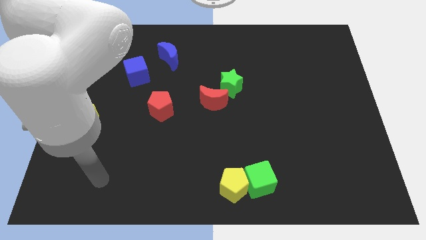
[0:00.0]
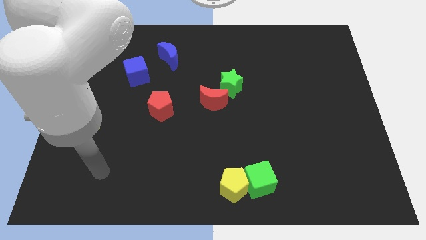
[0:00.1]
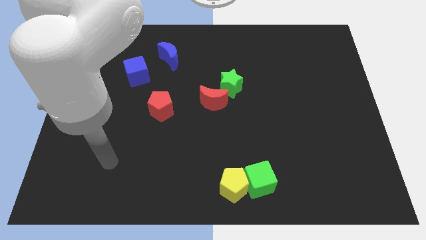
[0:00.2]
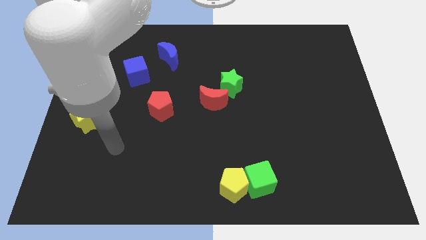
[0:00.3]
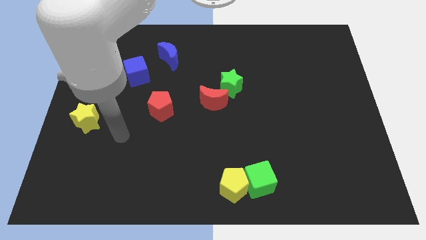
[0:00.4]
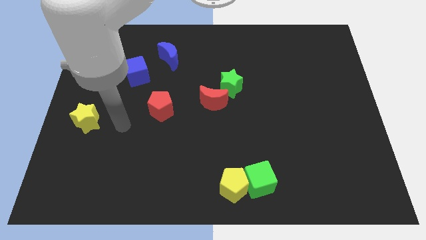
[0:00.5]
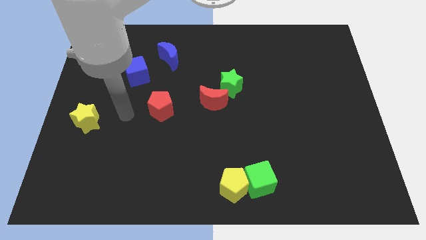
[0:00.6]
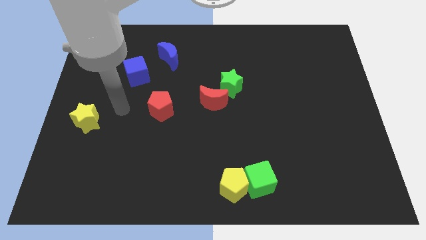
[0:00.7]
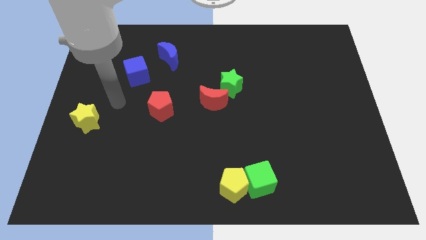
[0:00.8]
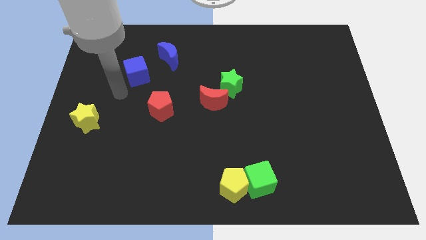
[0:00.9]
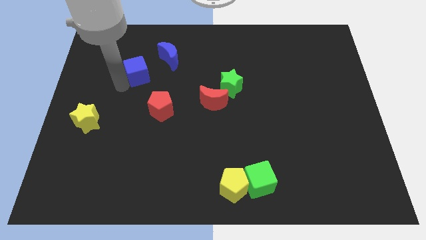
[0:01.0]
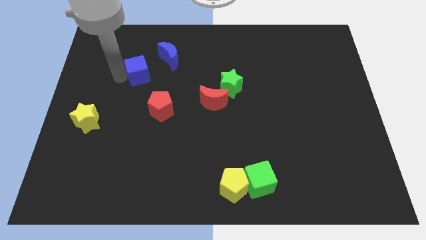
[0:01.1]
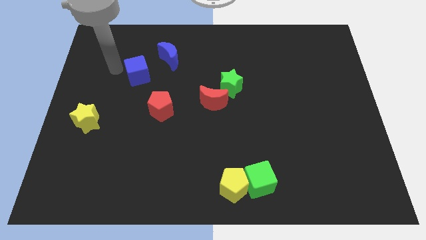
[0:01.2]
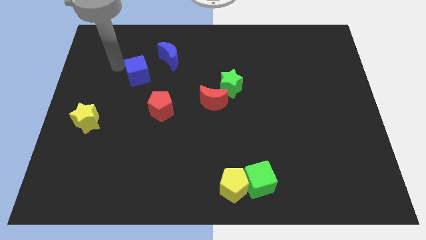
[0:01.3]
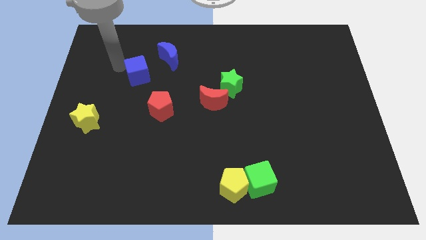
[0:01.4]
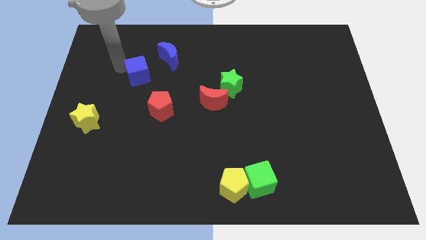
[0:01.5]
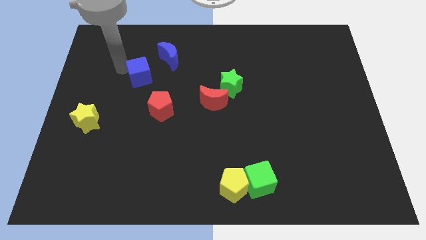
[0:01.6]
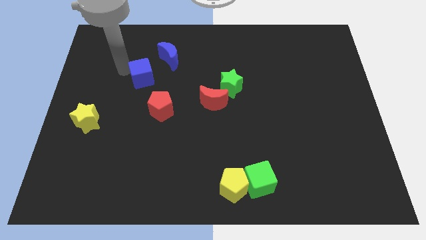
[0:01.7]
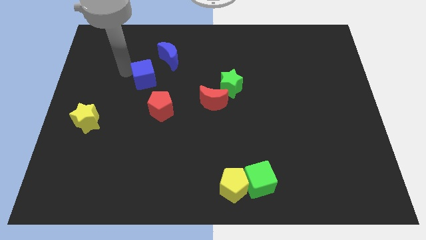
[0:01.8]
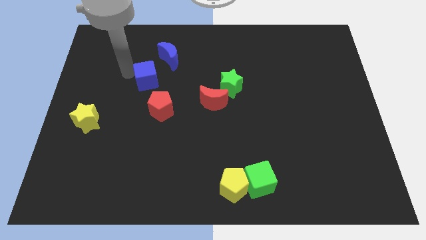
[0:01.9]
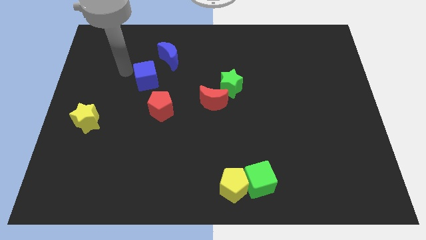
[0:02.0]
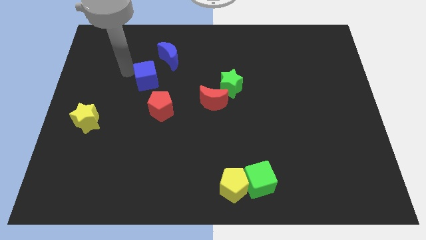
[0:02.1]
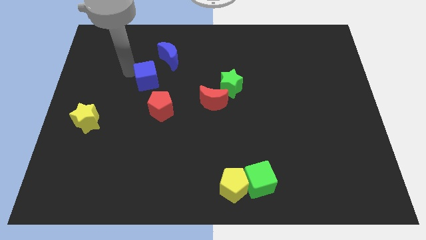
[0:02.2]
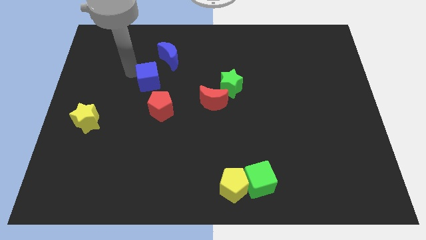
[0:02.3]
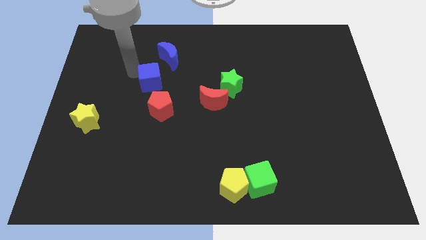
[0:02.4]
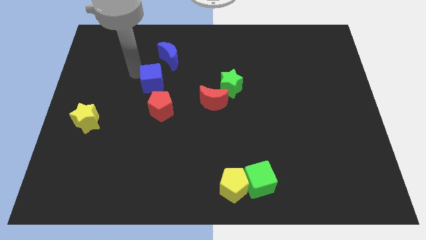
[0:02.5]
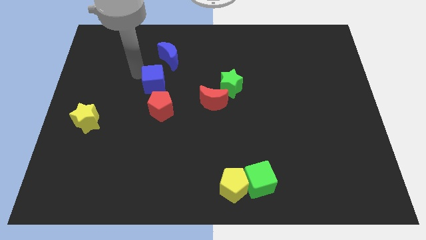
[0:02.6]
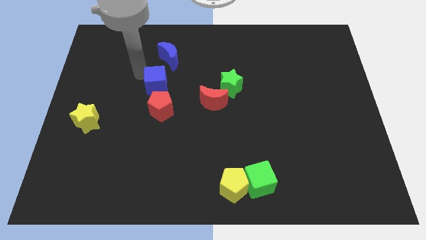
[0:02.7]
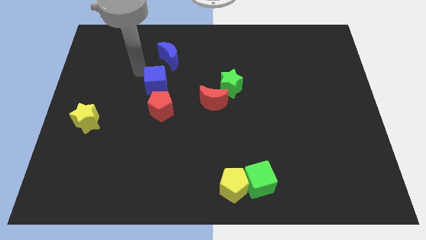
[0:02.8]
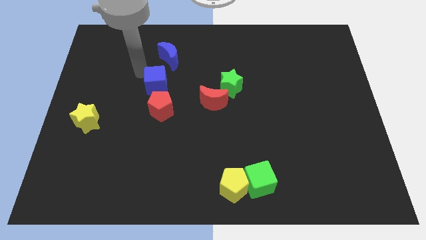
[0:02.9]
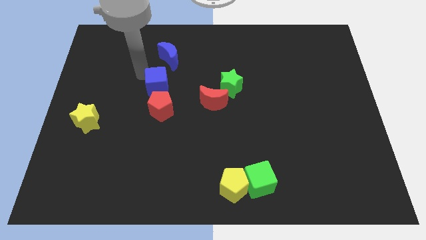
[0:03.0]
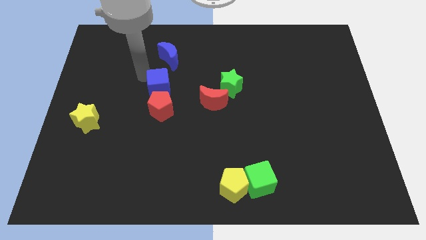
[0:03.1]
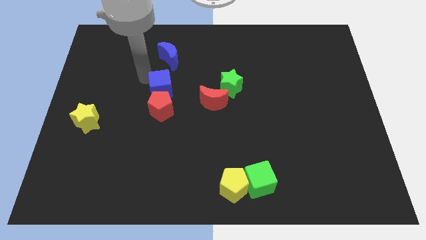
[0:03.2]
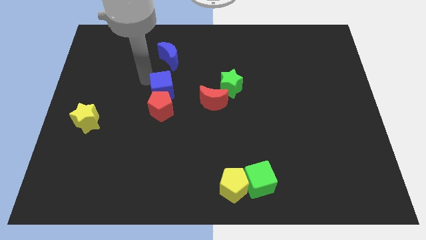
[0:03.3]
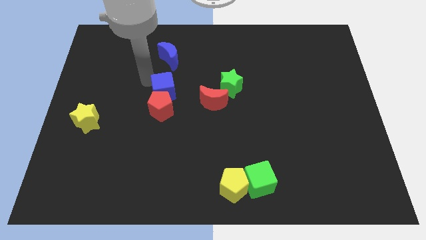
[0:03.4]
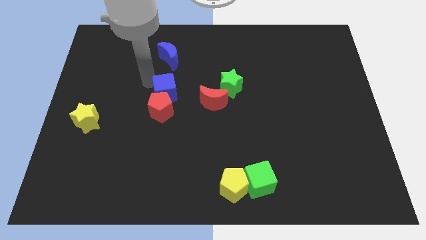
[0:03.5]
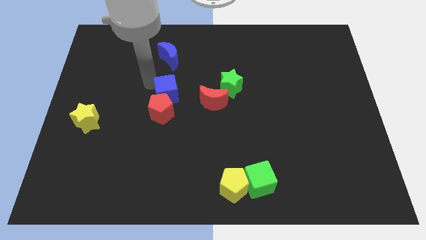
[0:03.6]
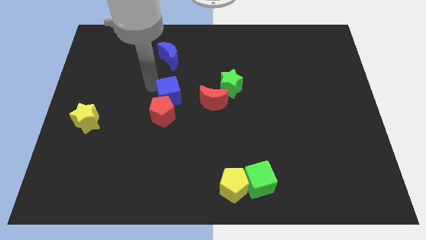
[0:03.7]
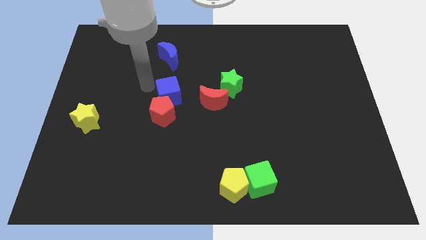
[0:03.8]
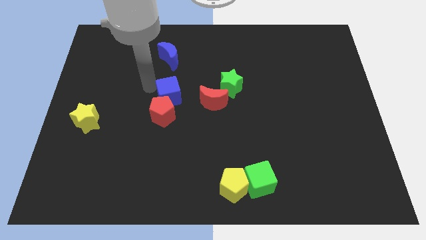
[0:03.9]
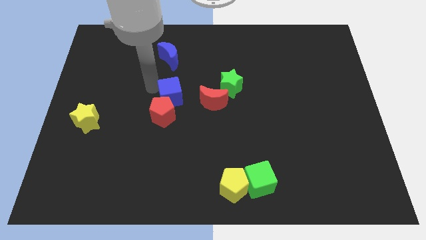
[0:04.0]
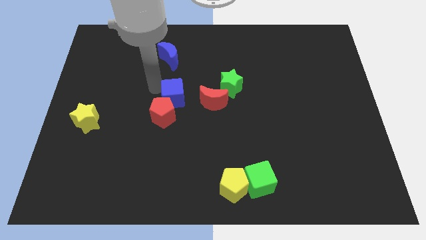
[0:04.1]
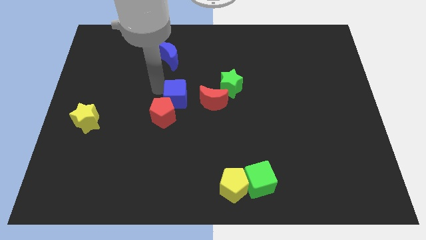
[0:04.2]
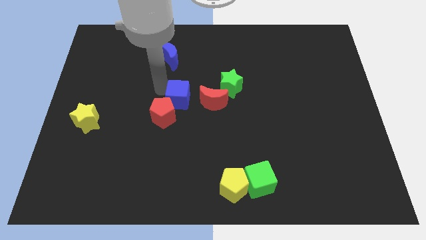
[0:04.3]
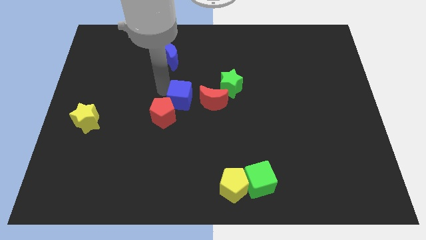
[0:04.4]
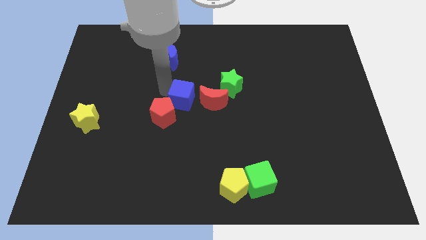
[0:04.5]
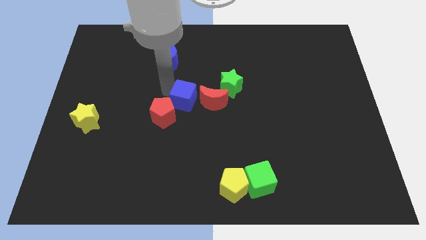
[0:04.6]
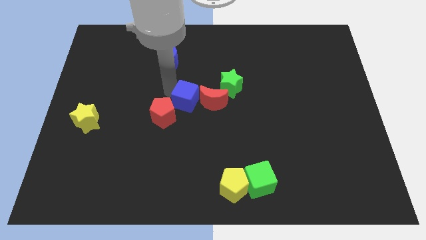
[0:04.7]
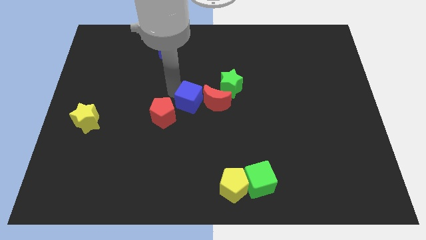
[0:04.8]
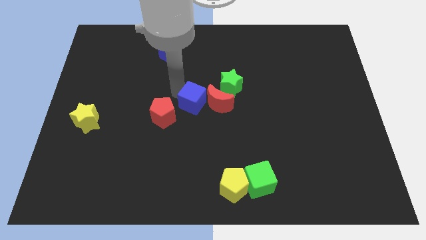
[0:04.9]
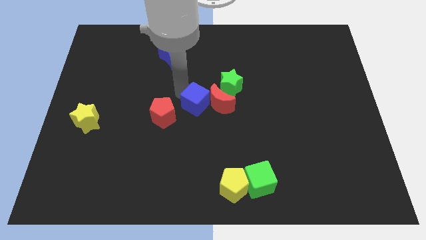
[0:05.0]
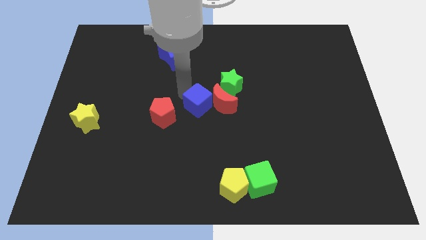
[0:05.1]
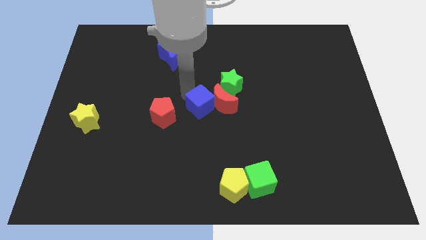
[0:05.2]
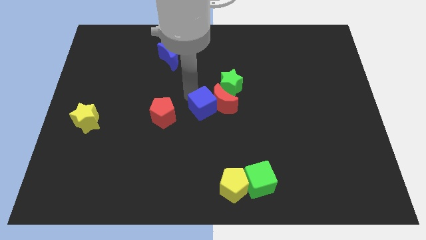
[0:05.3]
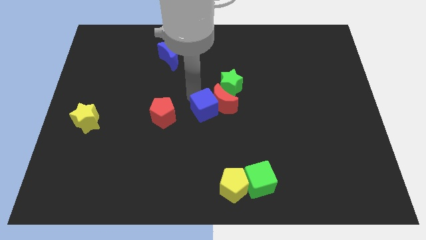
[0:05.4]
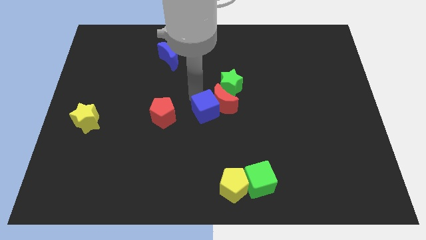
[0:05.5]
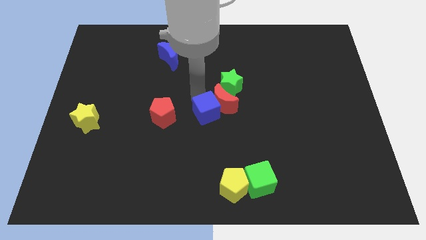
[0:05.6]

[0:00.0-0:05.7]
push the blue cube diagonally down and to the right

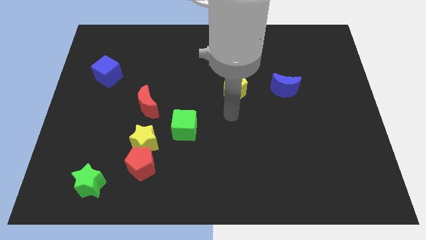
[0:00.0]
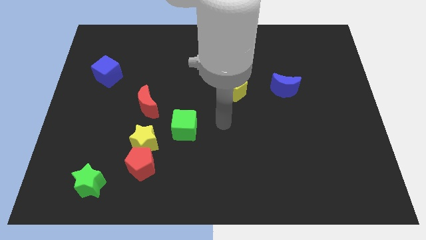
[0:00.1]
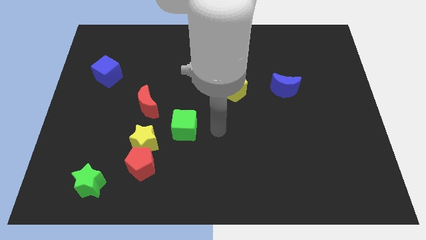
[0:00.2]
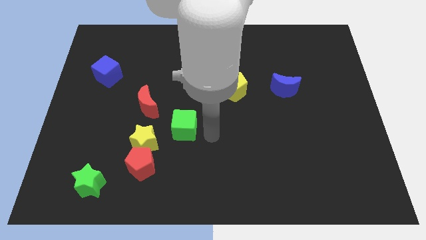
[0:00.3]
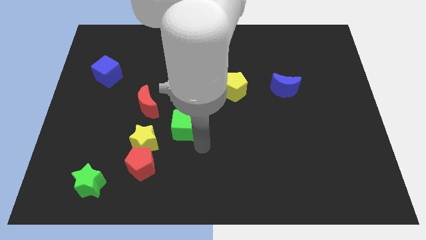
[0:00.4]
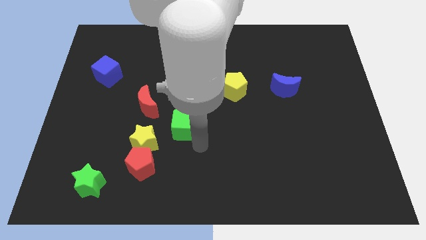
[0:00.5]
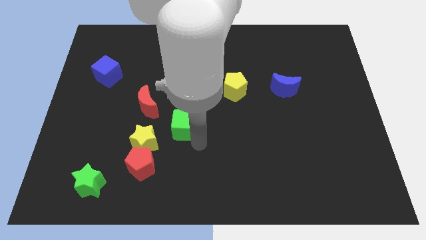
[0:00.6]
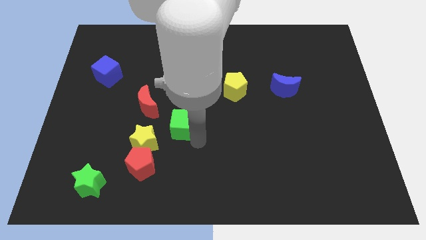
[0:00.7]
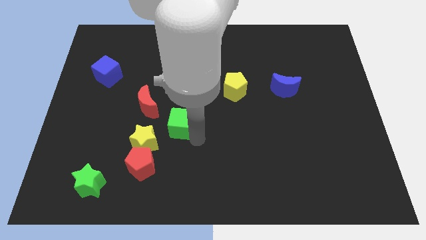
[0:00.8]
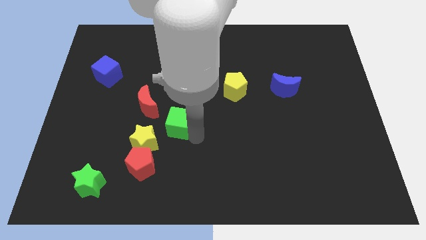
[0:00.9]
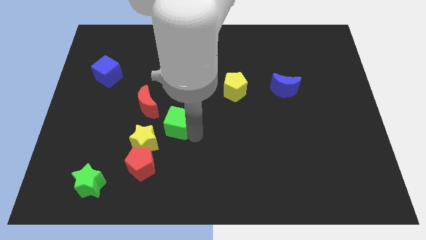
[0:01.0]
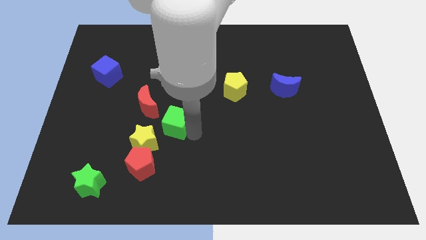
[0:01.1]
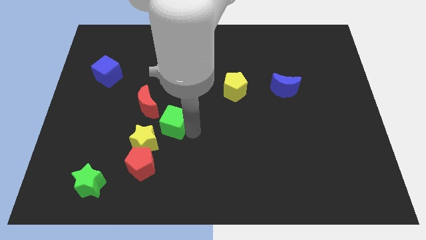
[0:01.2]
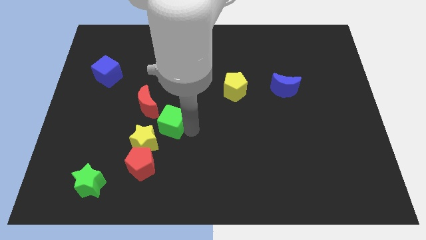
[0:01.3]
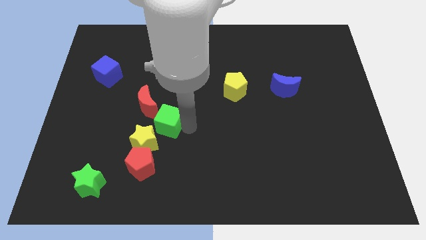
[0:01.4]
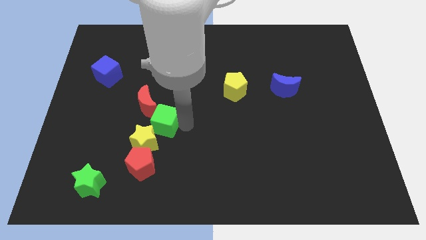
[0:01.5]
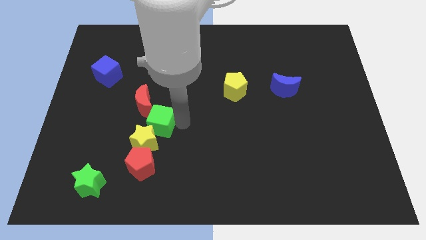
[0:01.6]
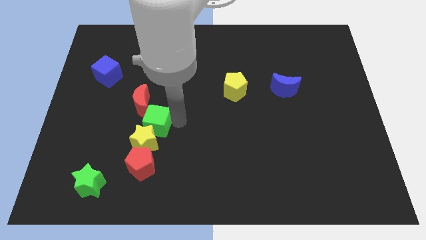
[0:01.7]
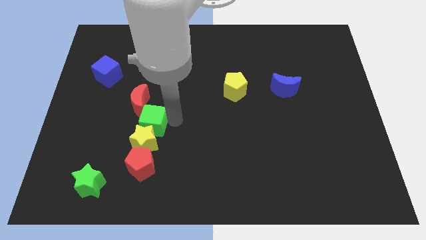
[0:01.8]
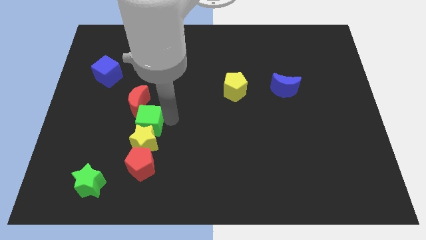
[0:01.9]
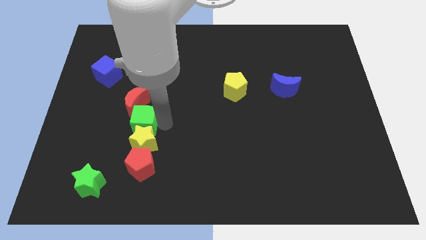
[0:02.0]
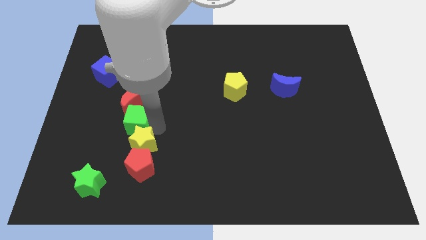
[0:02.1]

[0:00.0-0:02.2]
move the green cube upwards and to the left somewhat
